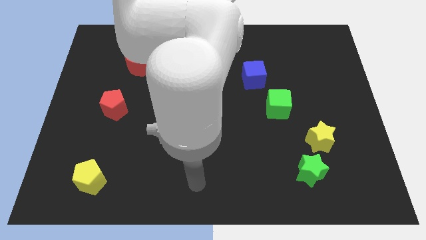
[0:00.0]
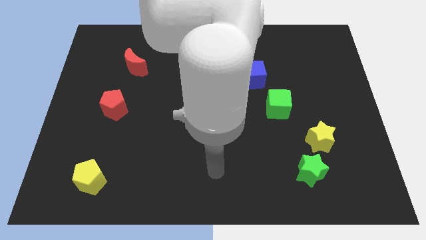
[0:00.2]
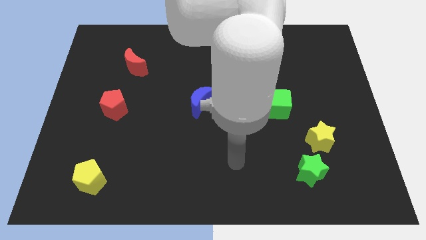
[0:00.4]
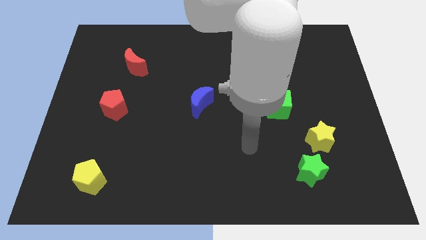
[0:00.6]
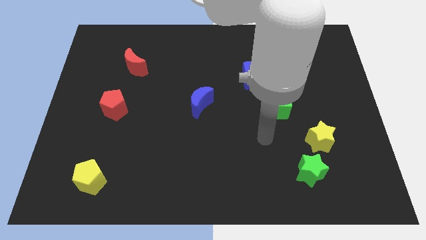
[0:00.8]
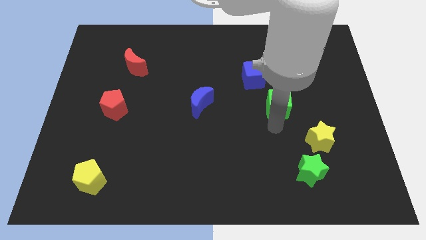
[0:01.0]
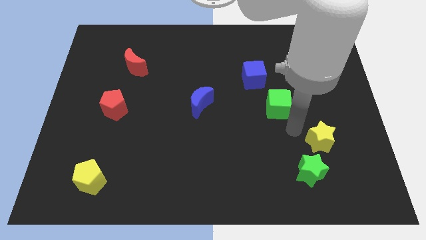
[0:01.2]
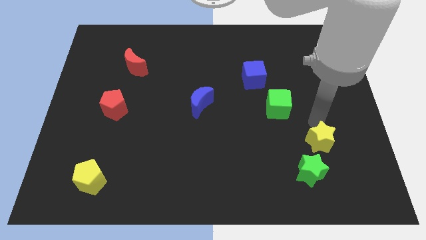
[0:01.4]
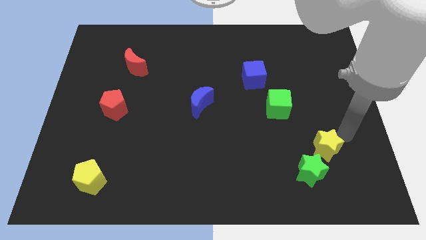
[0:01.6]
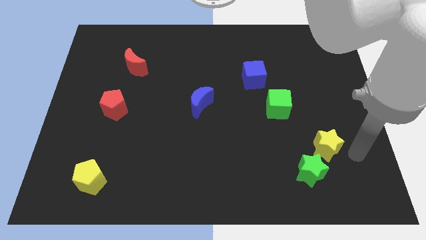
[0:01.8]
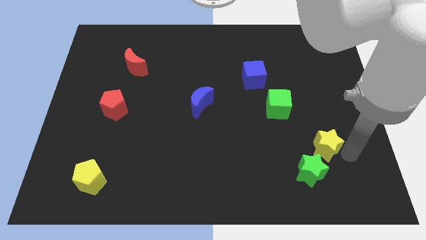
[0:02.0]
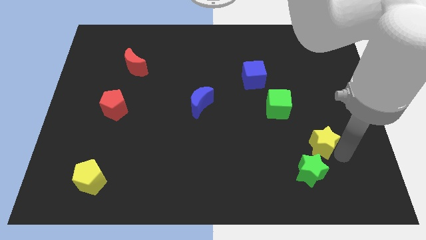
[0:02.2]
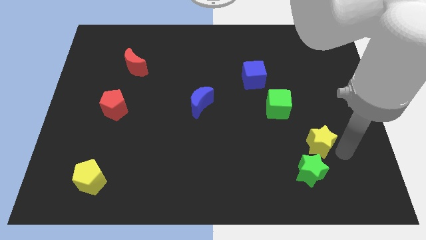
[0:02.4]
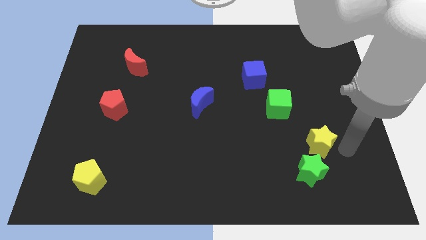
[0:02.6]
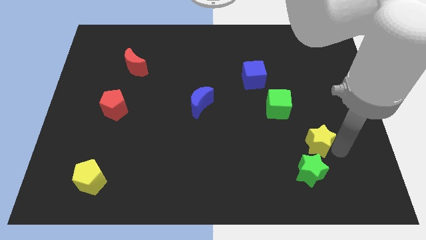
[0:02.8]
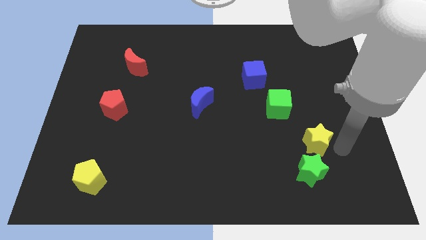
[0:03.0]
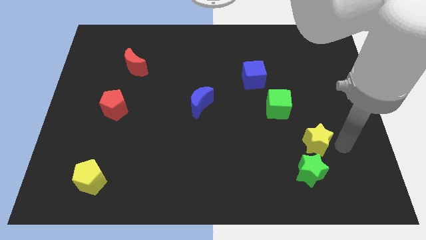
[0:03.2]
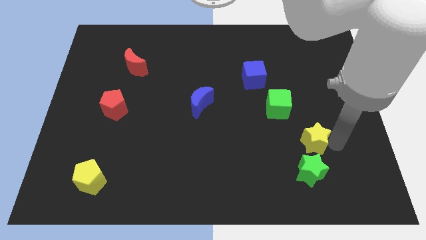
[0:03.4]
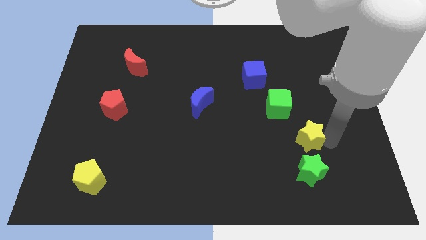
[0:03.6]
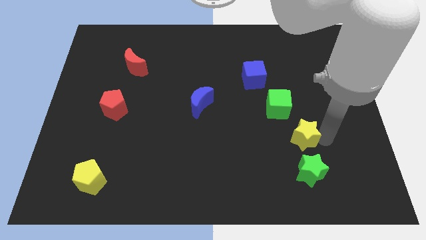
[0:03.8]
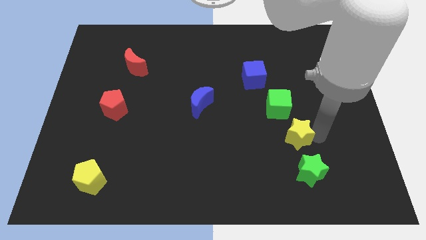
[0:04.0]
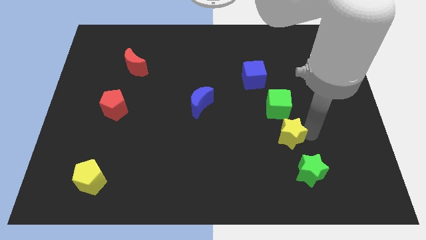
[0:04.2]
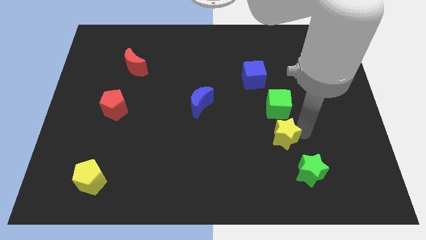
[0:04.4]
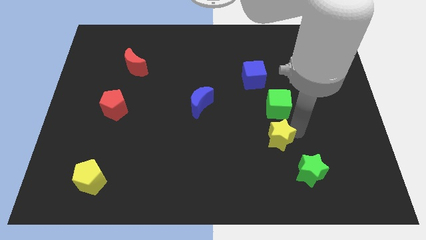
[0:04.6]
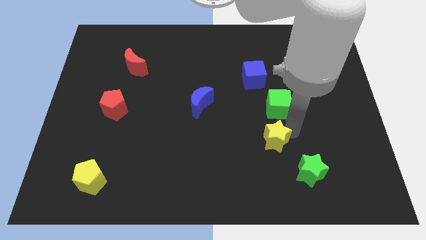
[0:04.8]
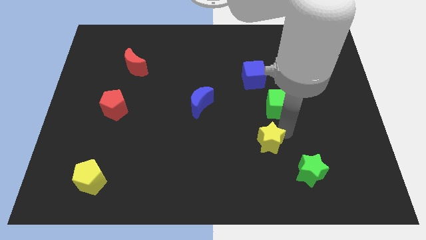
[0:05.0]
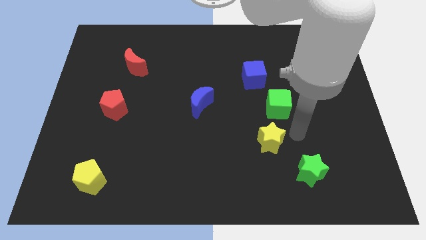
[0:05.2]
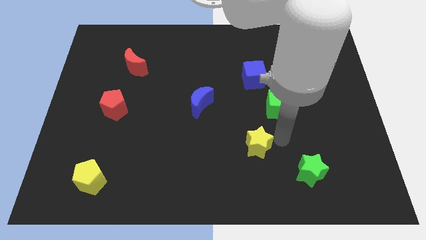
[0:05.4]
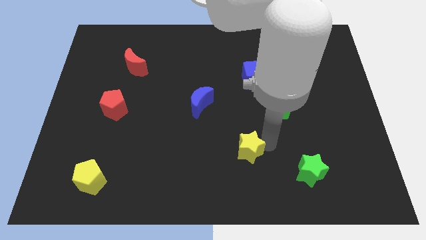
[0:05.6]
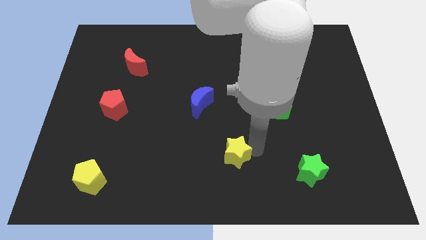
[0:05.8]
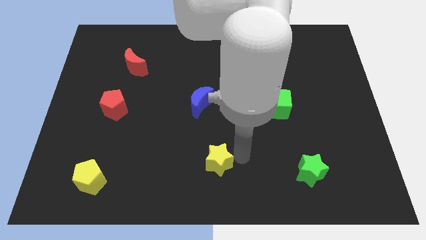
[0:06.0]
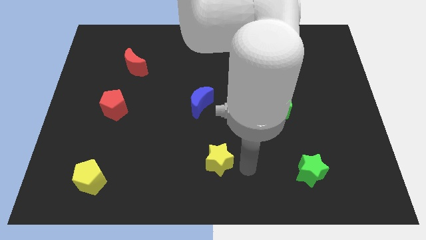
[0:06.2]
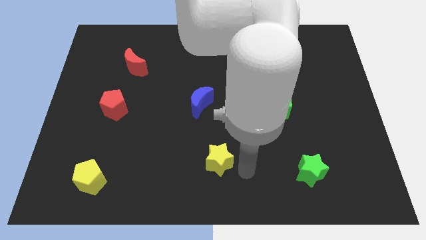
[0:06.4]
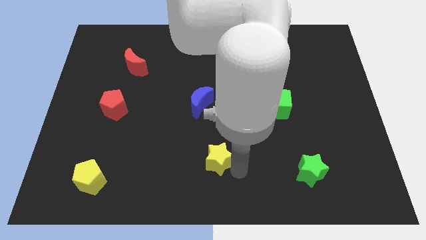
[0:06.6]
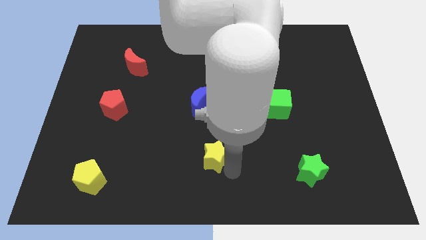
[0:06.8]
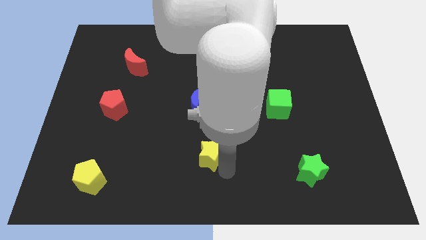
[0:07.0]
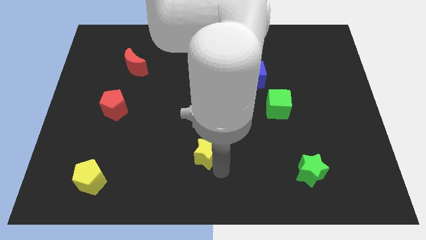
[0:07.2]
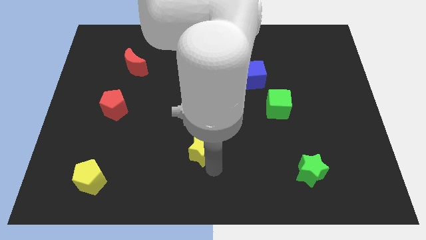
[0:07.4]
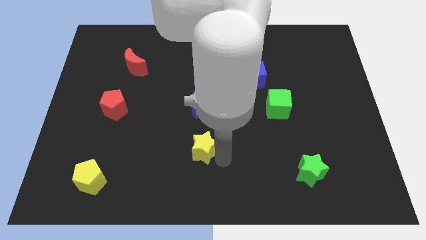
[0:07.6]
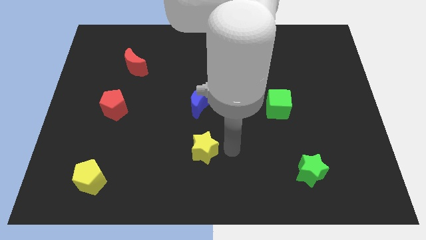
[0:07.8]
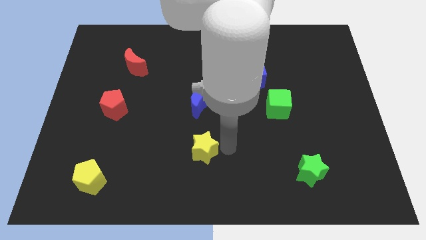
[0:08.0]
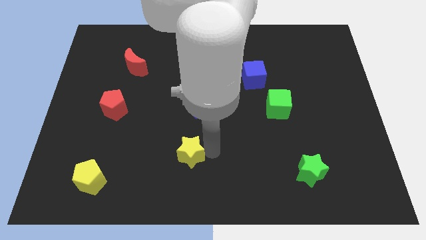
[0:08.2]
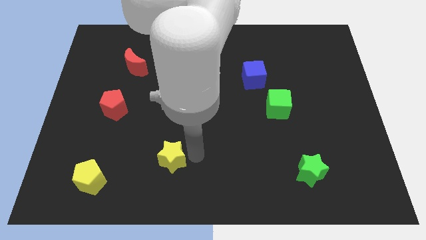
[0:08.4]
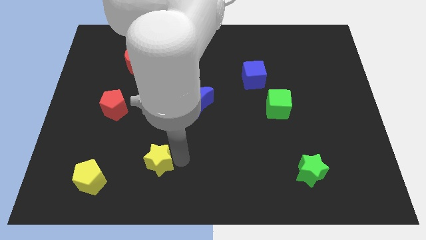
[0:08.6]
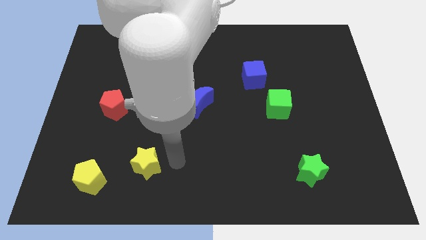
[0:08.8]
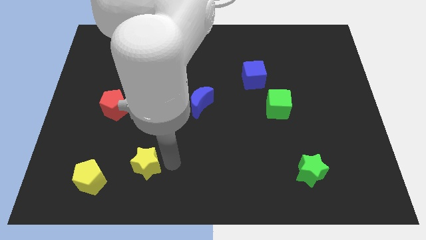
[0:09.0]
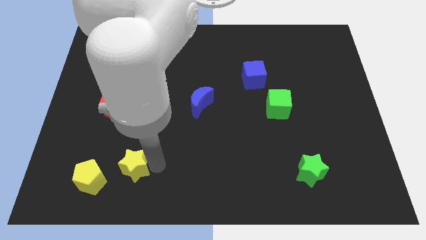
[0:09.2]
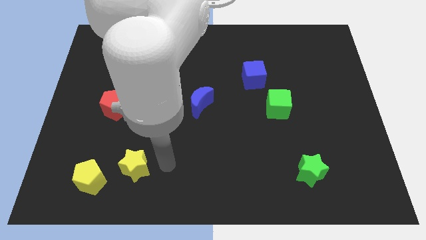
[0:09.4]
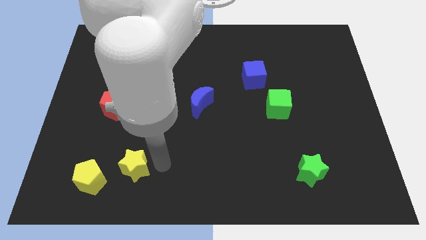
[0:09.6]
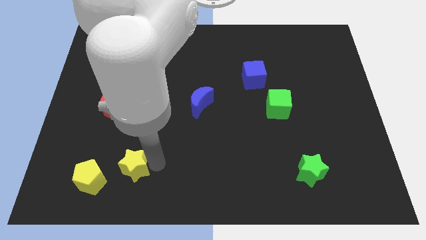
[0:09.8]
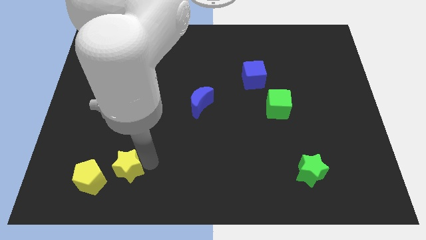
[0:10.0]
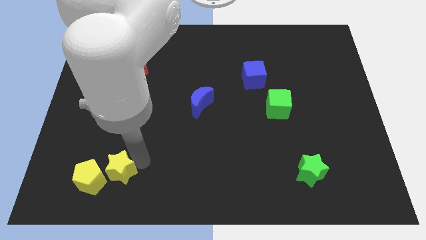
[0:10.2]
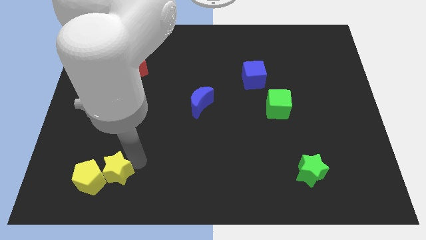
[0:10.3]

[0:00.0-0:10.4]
put the yellow star towards the yellow pentagon

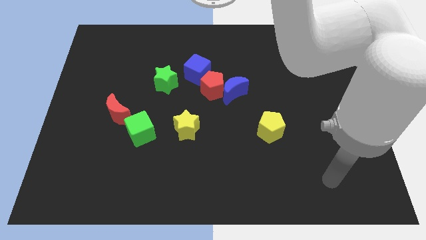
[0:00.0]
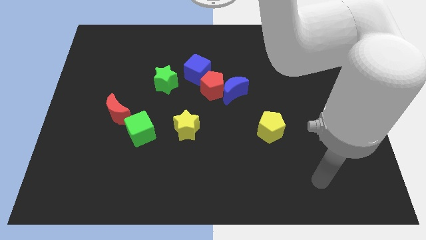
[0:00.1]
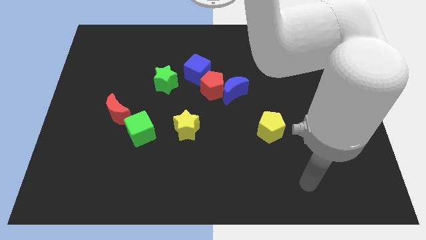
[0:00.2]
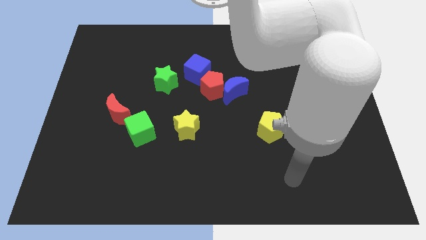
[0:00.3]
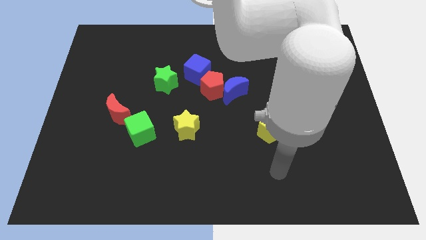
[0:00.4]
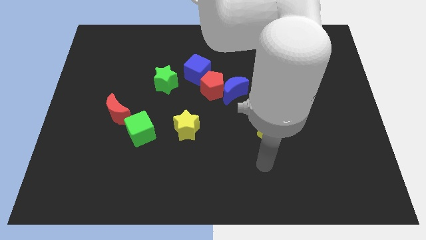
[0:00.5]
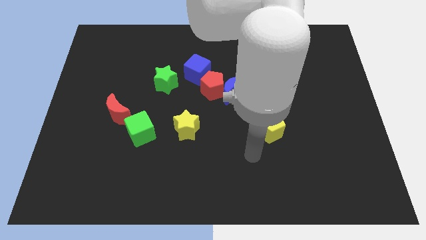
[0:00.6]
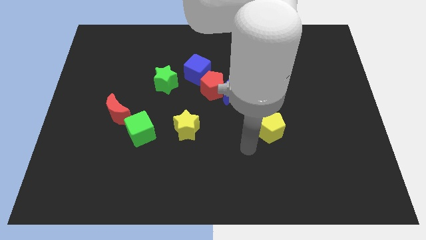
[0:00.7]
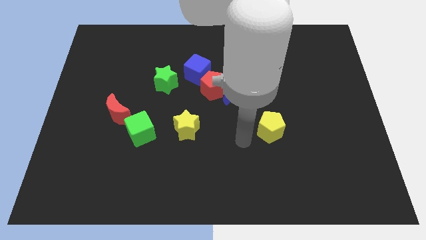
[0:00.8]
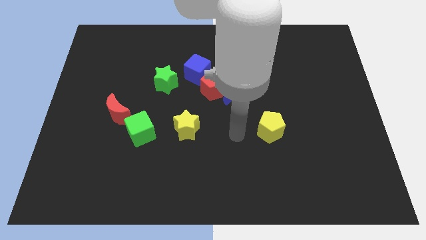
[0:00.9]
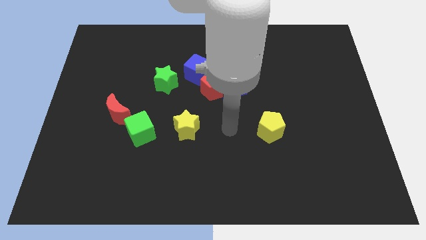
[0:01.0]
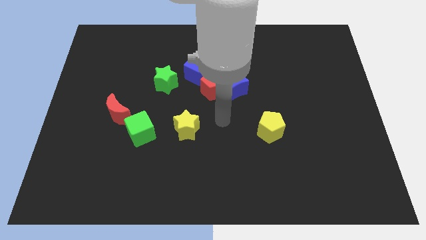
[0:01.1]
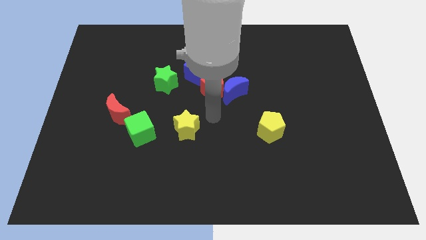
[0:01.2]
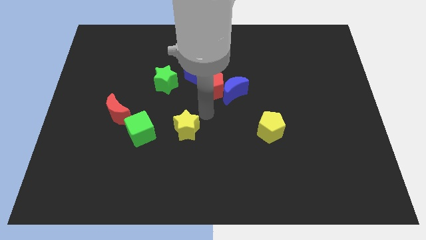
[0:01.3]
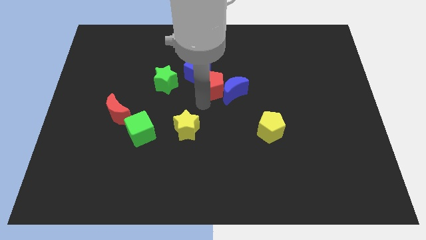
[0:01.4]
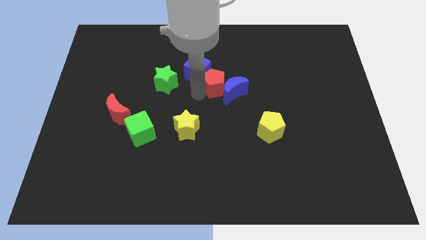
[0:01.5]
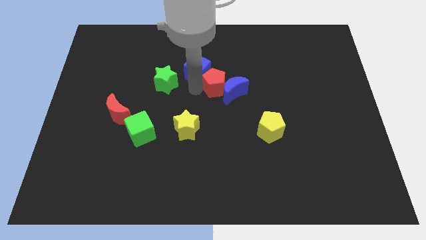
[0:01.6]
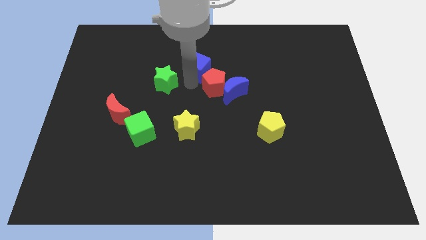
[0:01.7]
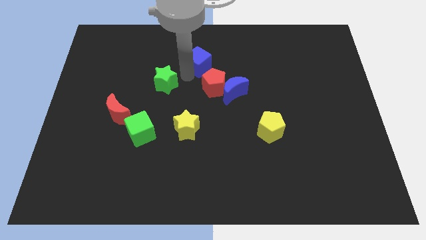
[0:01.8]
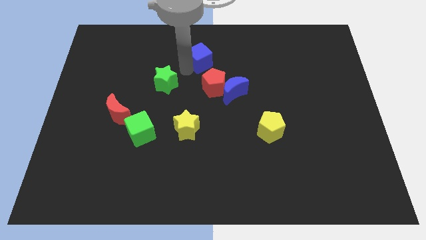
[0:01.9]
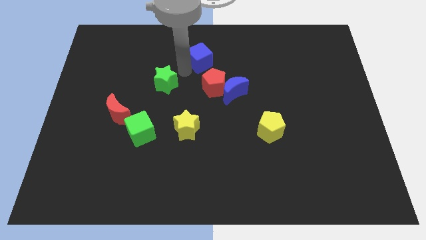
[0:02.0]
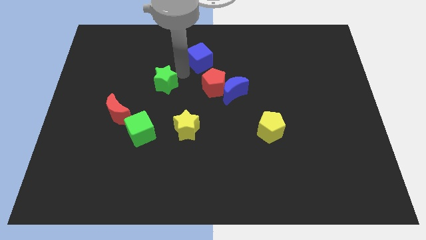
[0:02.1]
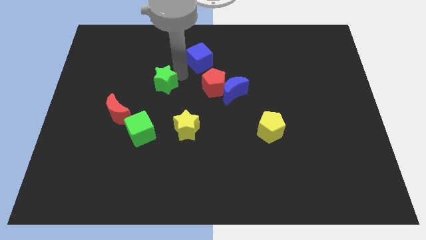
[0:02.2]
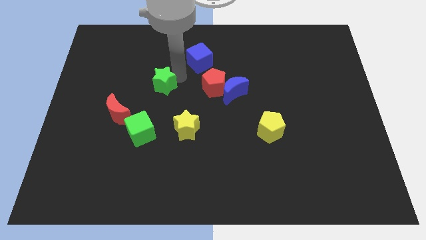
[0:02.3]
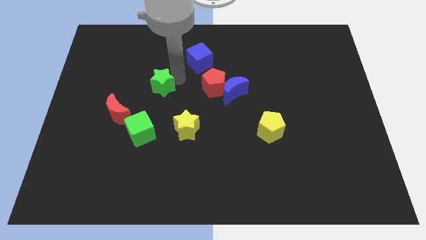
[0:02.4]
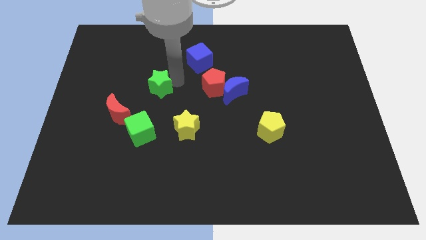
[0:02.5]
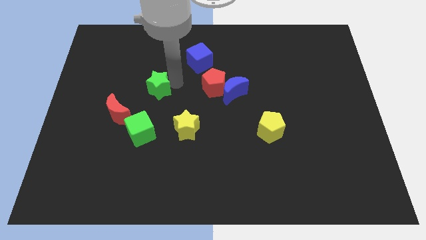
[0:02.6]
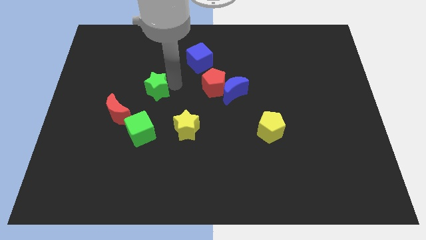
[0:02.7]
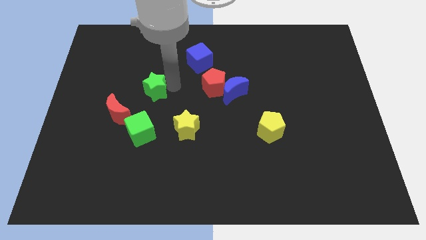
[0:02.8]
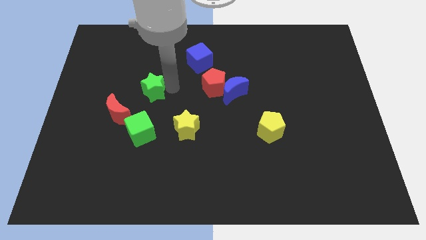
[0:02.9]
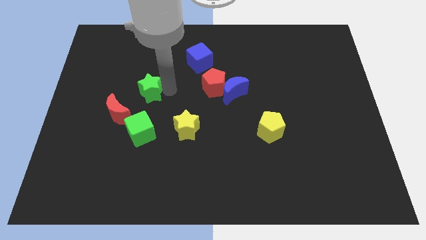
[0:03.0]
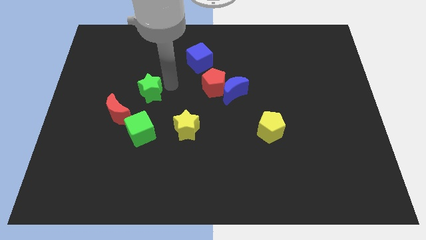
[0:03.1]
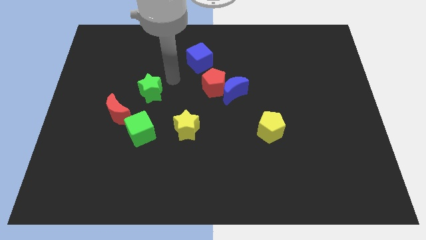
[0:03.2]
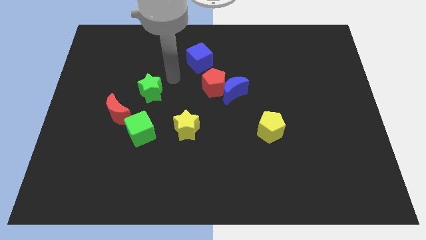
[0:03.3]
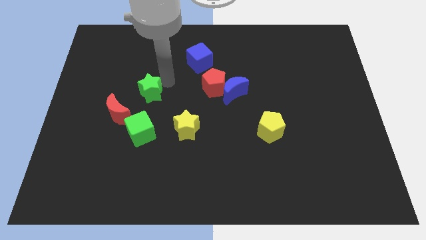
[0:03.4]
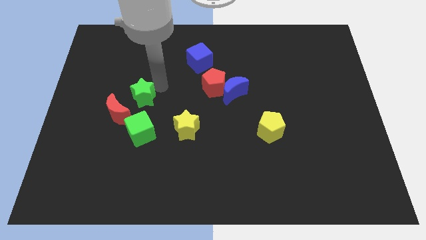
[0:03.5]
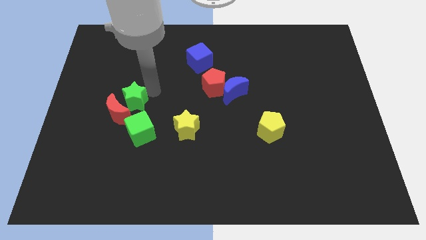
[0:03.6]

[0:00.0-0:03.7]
slide the green star next to the red moon
